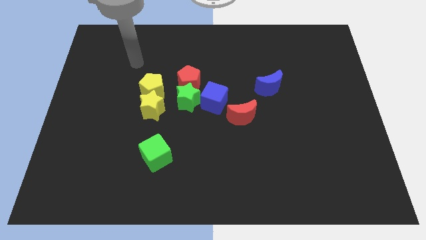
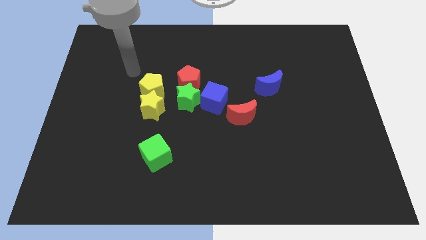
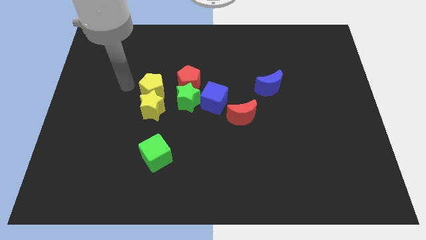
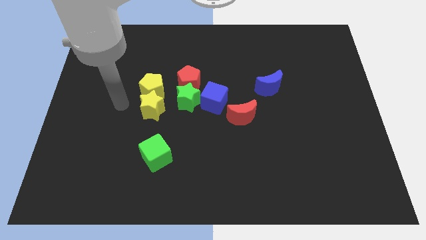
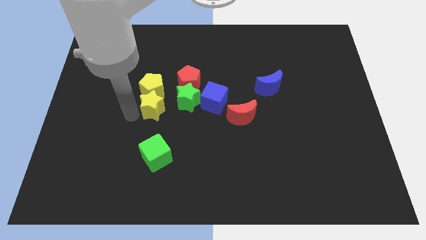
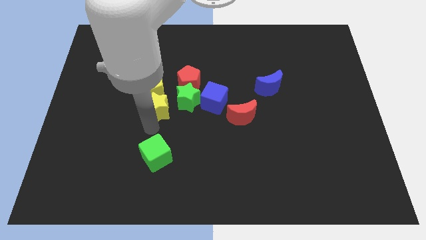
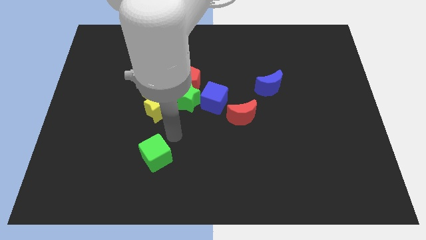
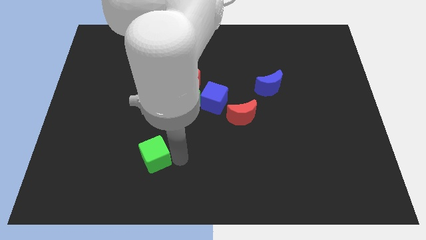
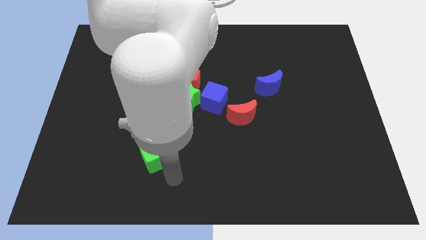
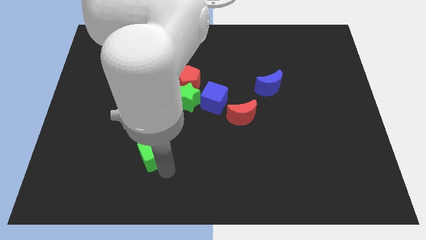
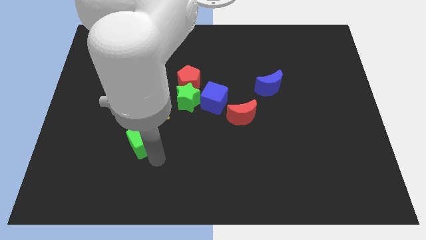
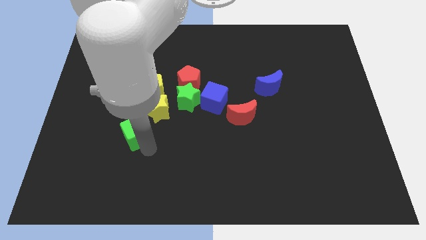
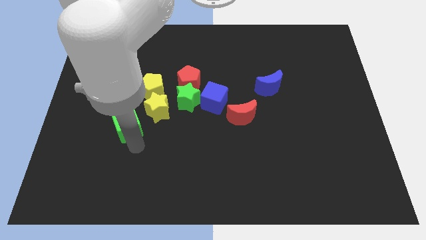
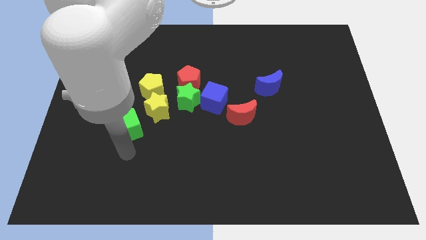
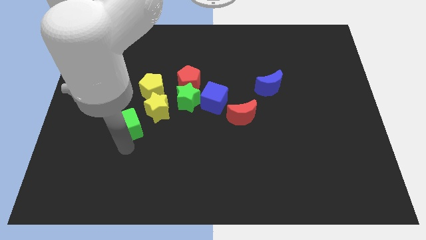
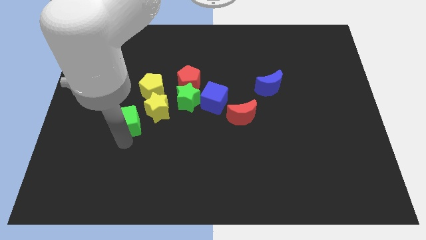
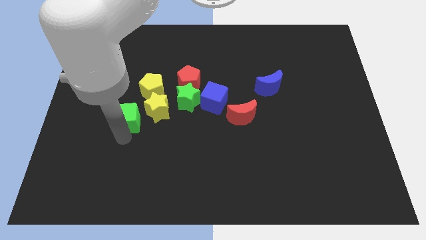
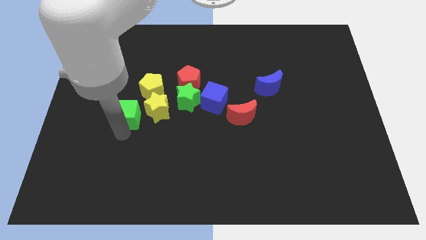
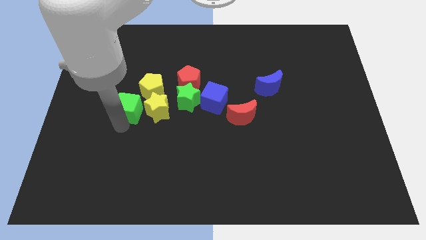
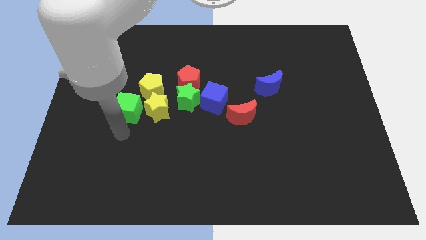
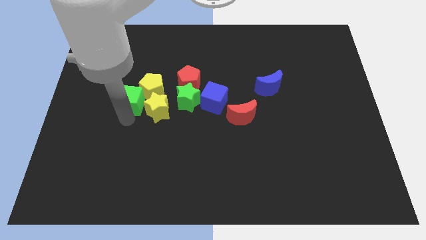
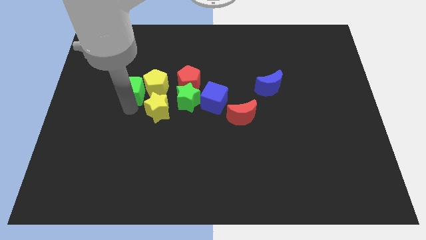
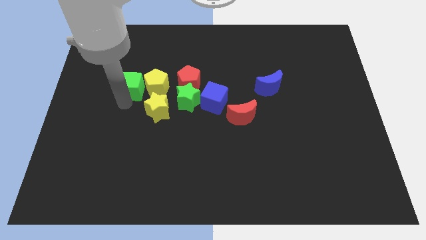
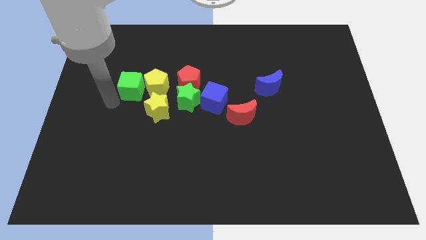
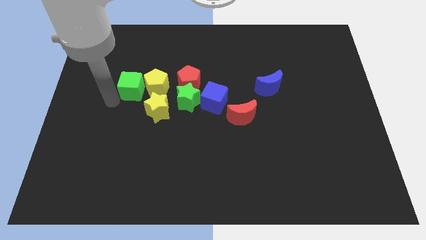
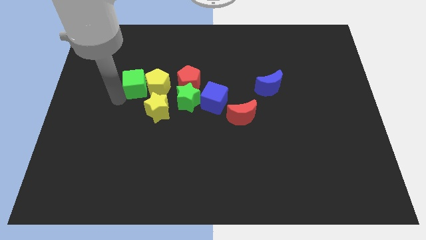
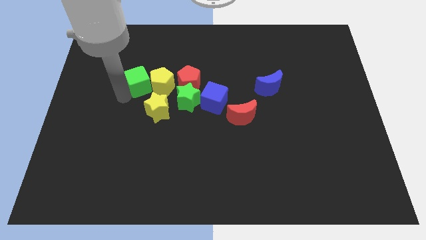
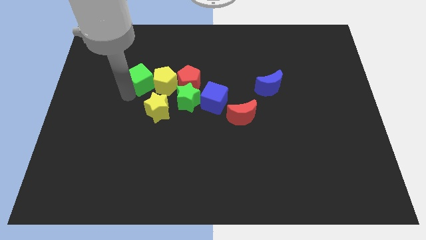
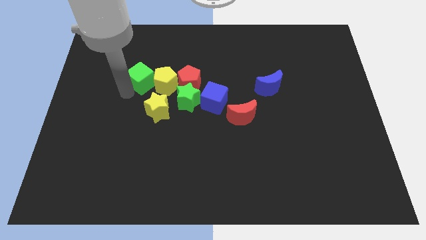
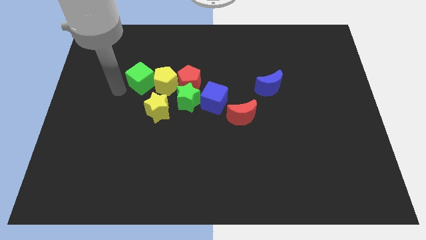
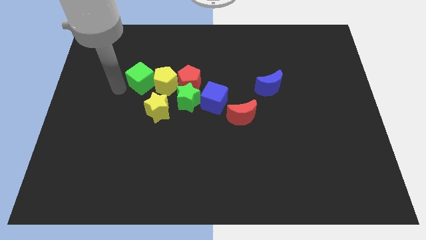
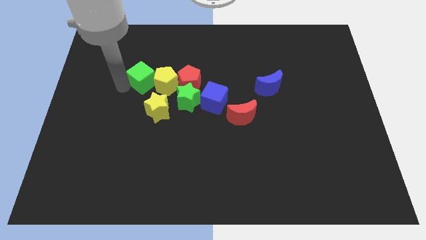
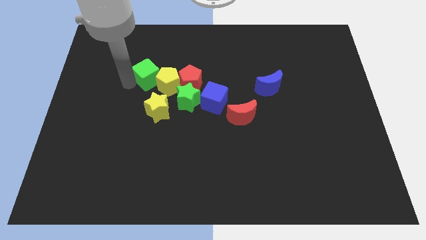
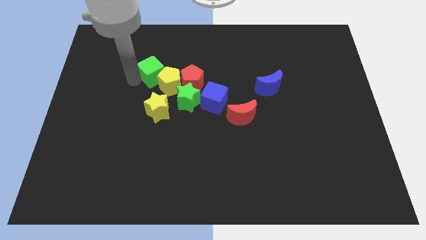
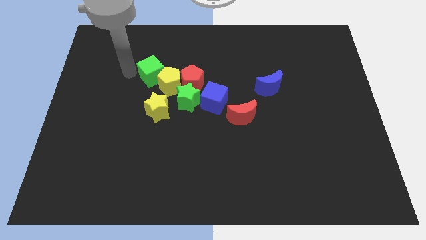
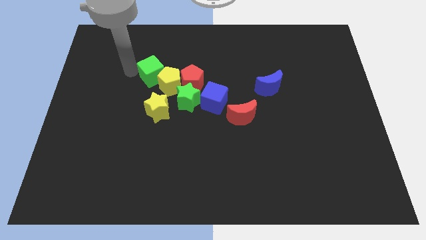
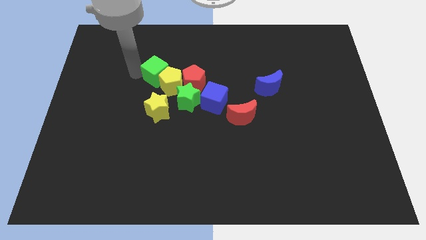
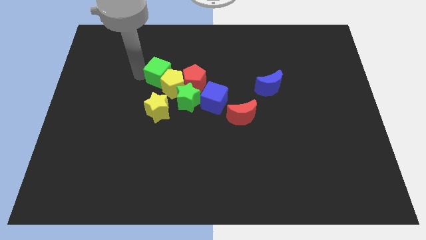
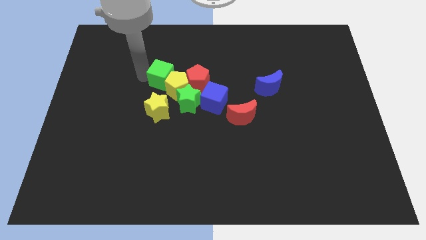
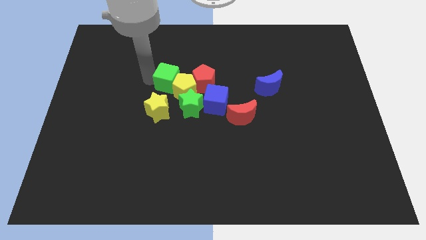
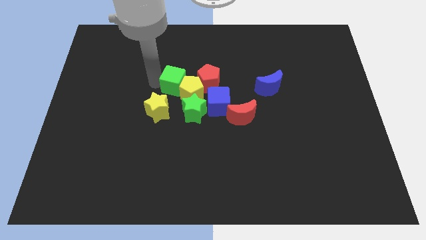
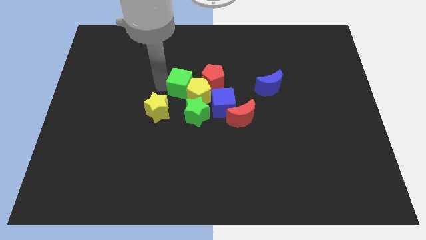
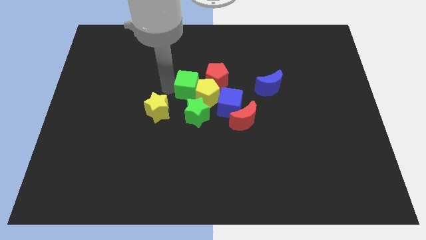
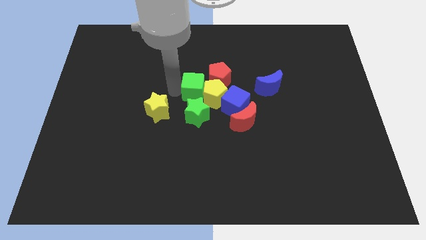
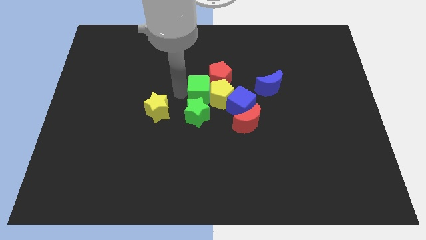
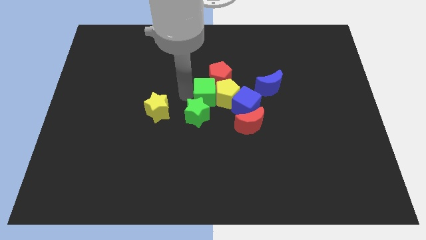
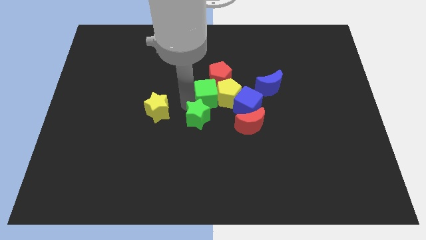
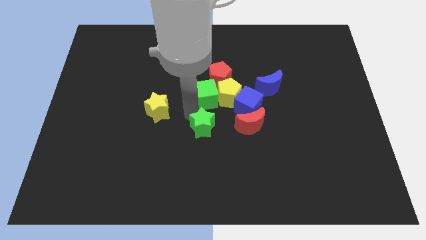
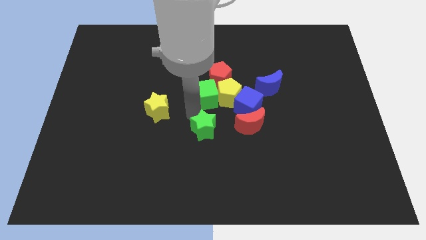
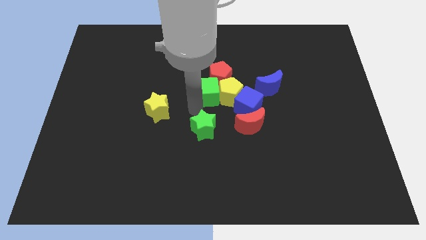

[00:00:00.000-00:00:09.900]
move the green cube close to the red pentagon

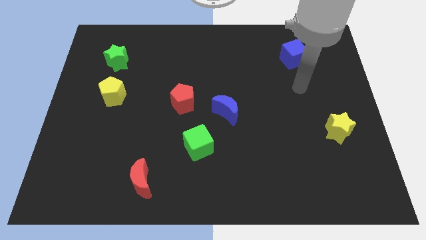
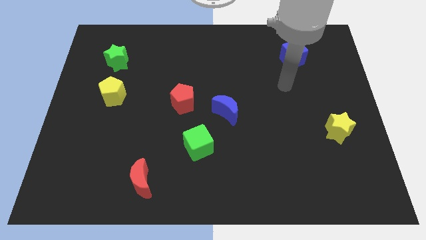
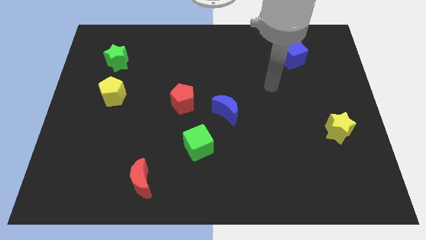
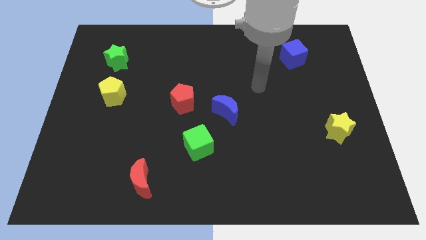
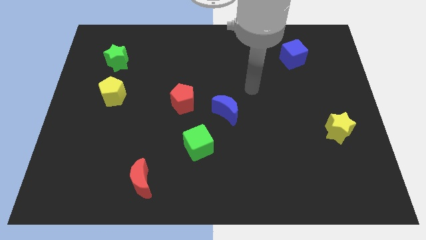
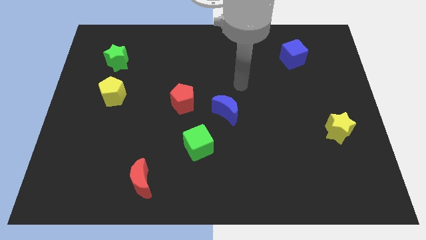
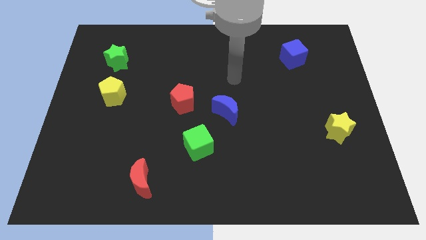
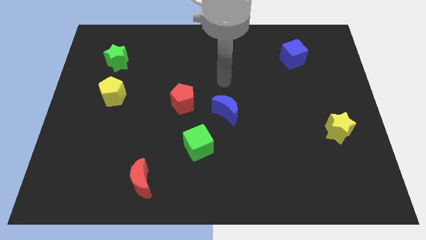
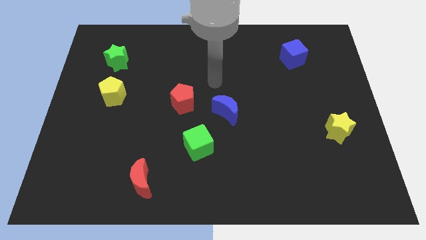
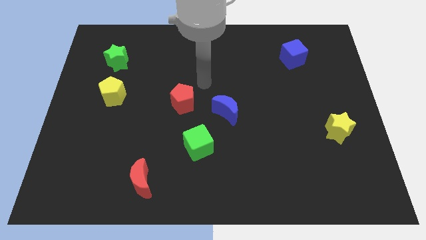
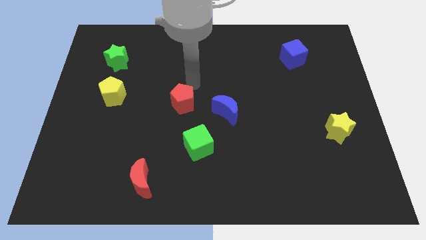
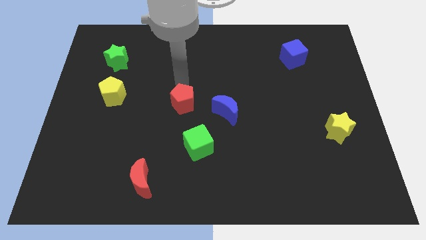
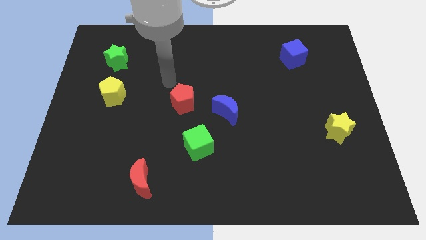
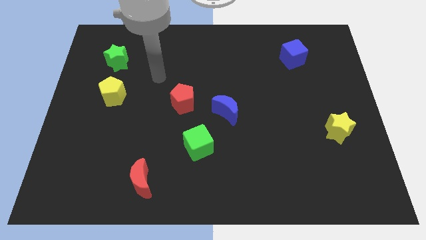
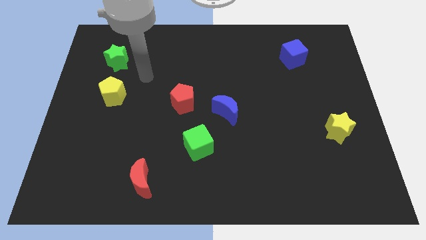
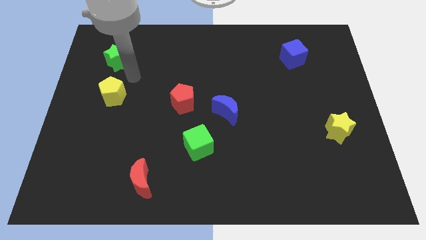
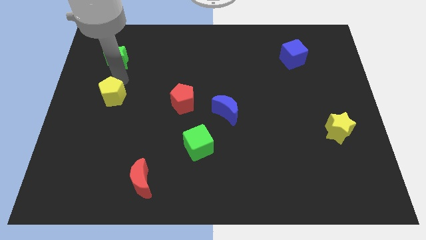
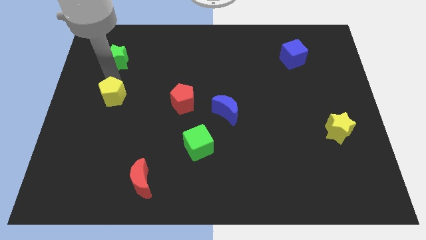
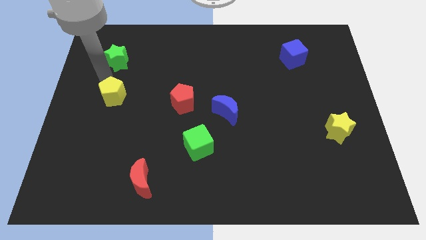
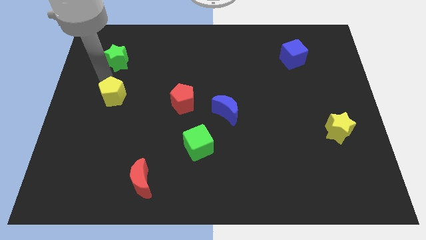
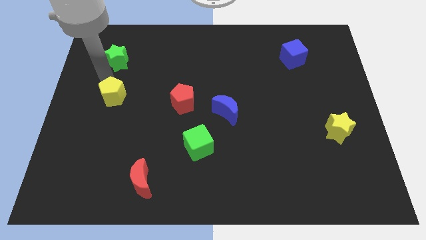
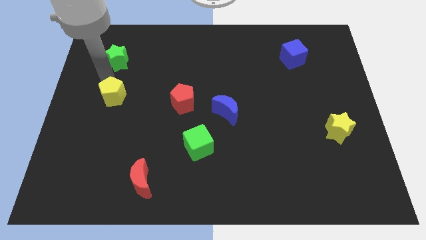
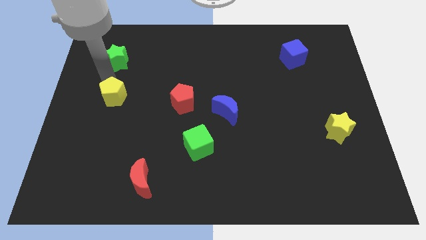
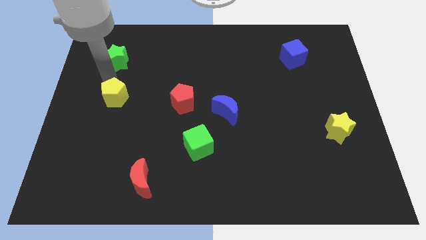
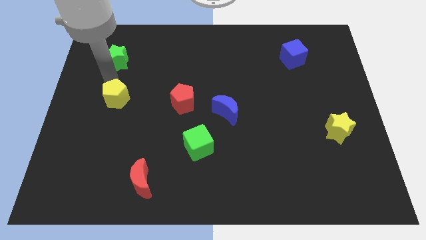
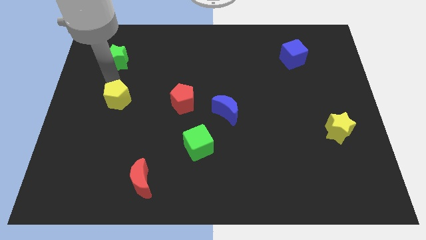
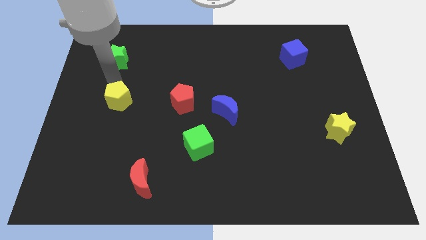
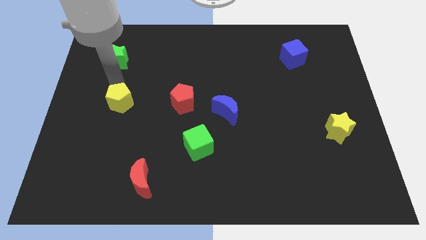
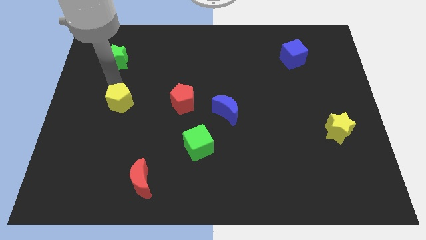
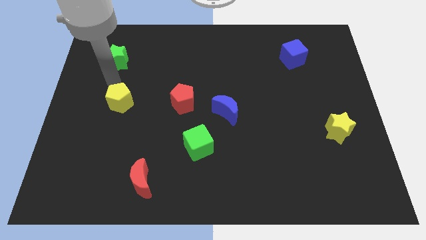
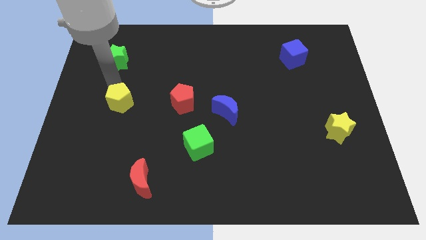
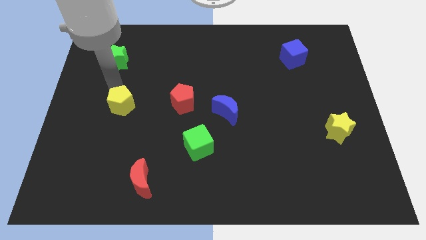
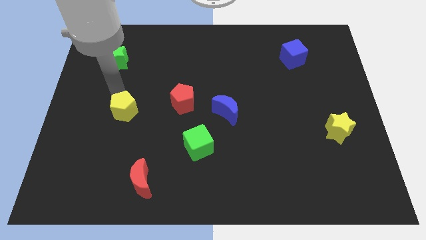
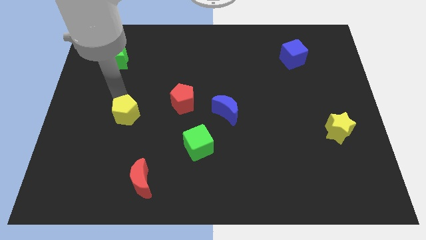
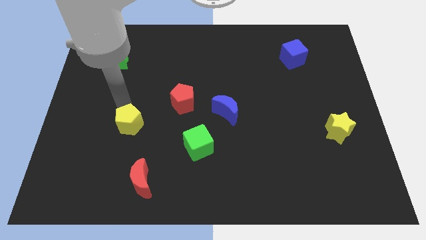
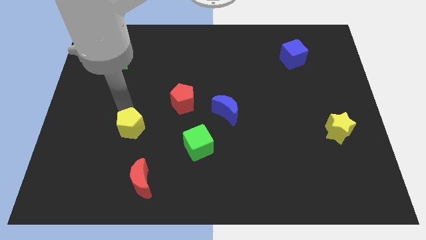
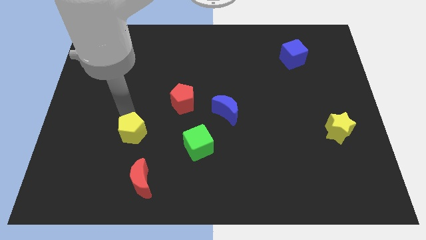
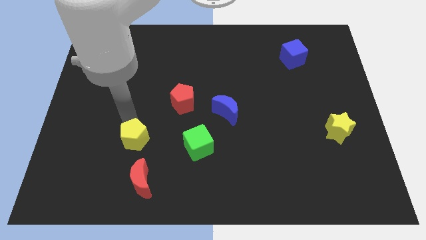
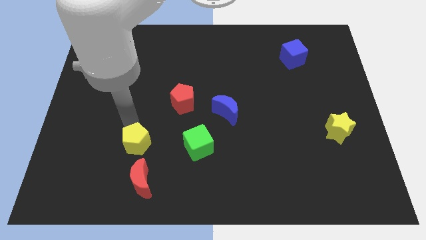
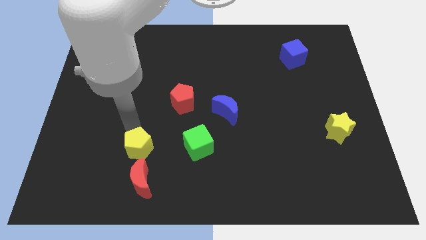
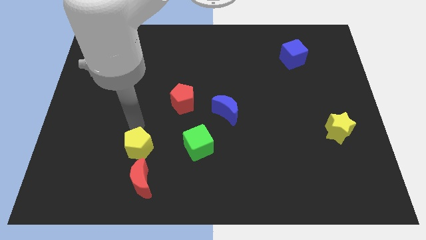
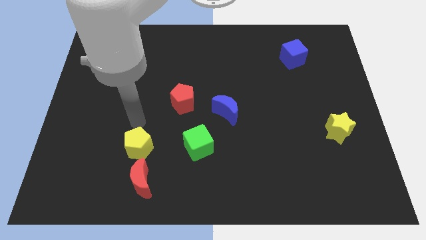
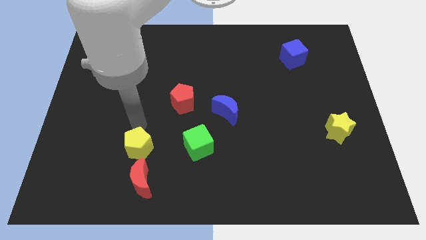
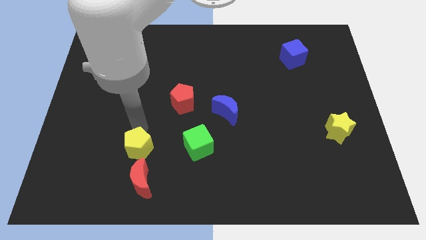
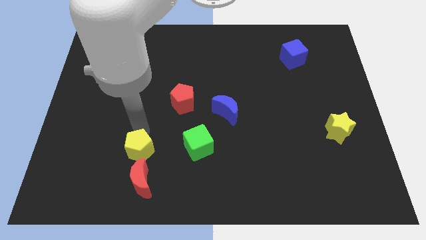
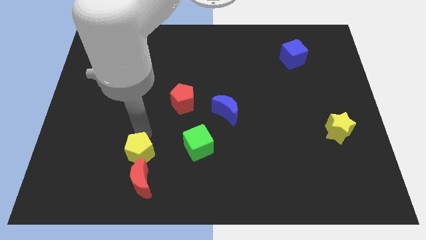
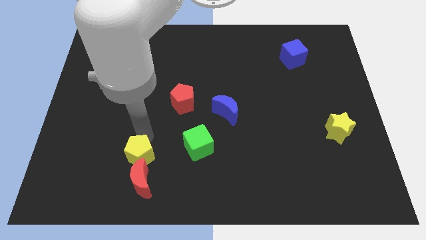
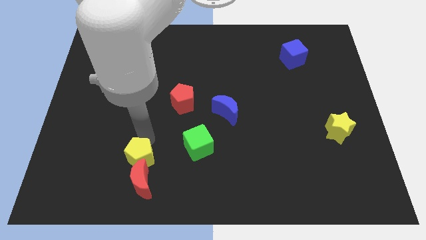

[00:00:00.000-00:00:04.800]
put the yellow pentagon to the red moon
